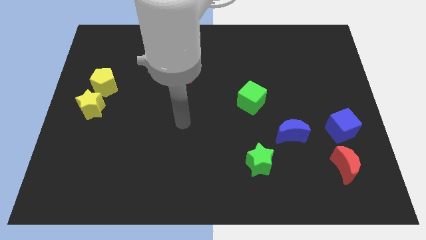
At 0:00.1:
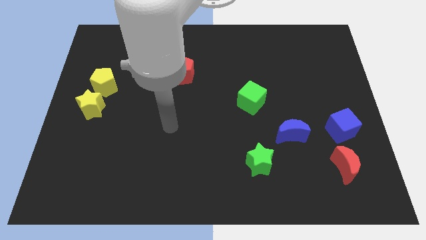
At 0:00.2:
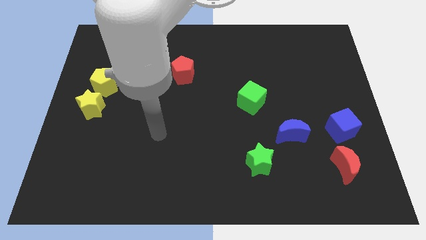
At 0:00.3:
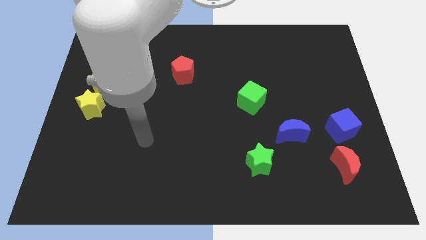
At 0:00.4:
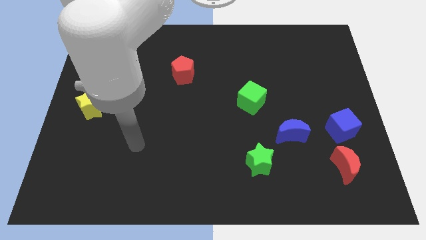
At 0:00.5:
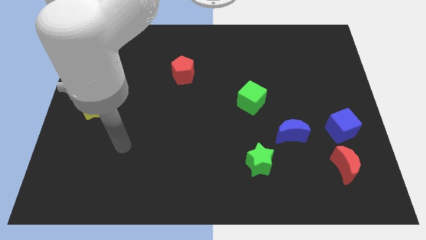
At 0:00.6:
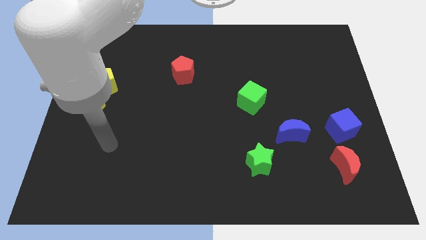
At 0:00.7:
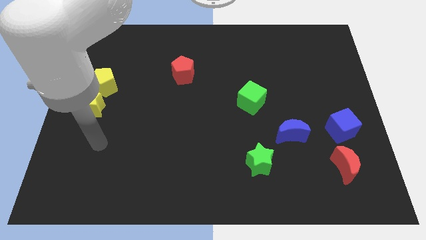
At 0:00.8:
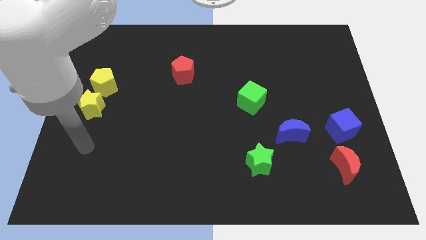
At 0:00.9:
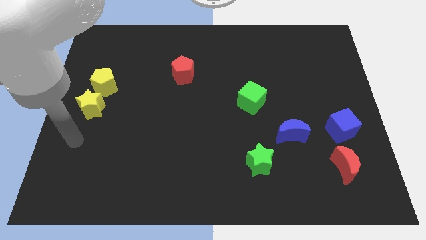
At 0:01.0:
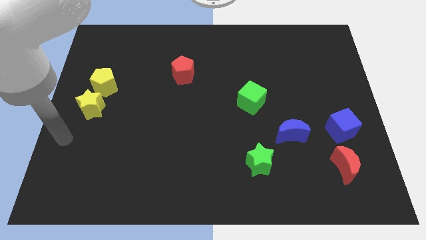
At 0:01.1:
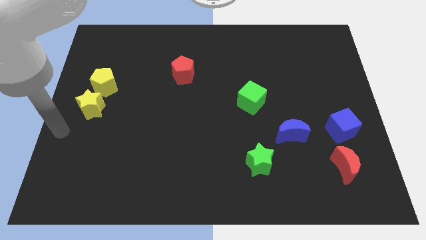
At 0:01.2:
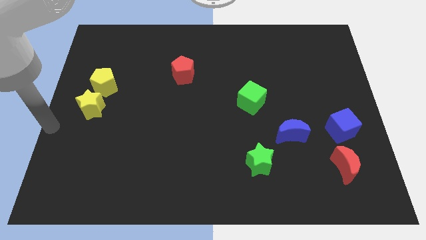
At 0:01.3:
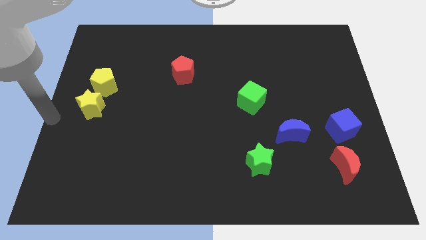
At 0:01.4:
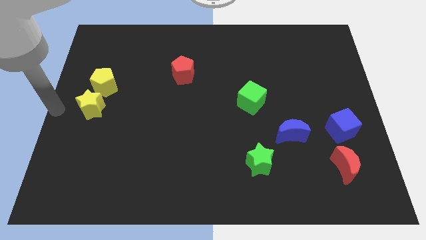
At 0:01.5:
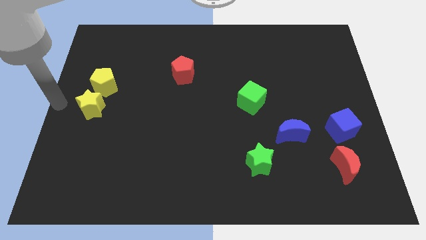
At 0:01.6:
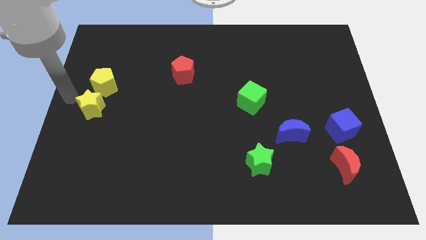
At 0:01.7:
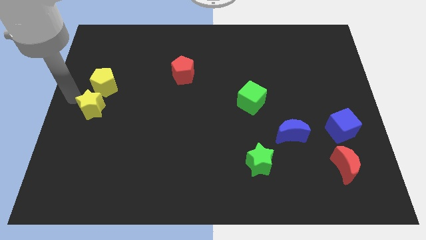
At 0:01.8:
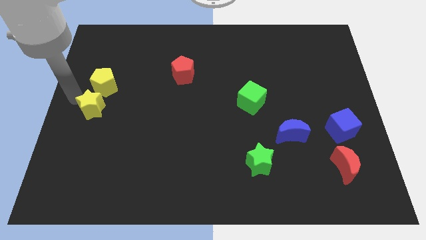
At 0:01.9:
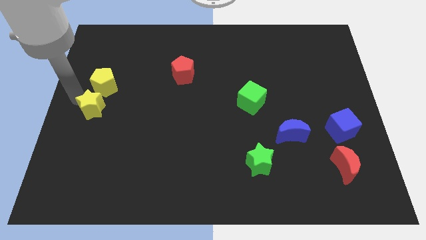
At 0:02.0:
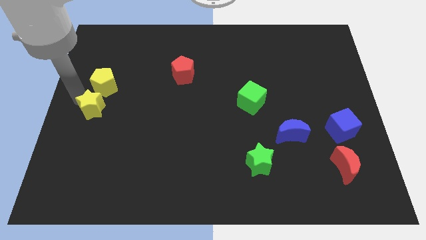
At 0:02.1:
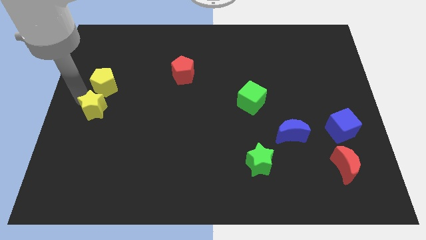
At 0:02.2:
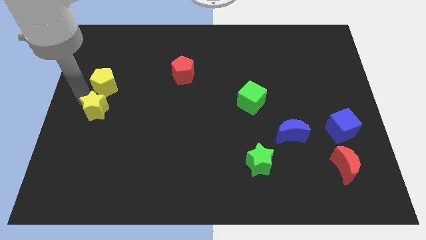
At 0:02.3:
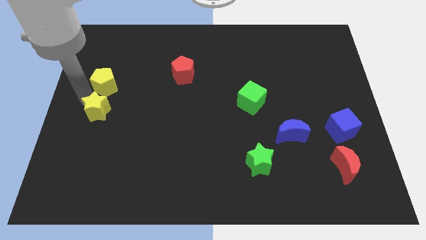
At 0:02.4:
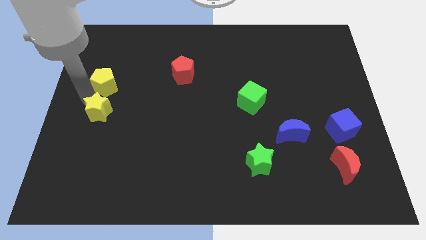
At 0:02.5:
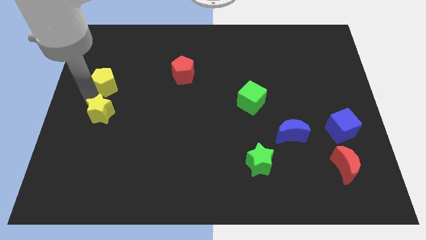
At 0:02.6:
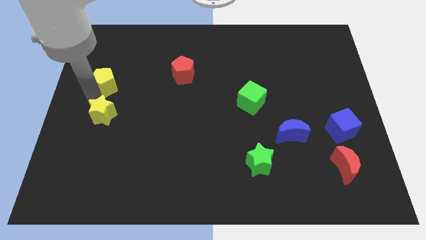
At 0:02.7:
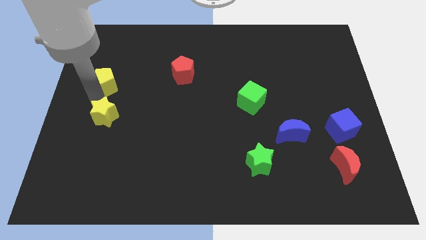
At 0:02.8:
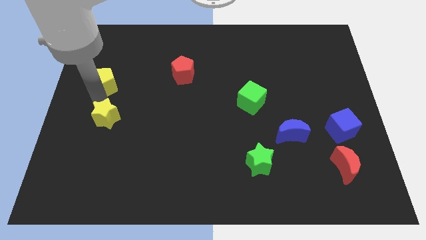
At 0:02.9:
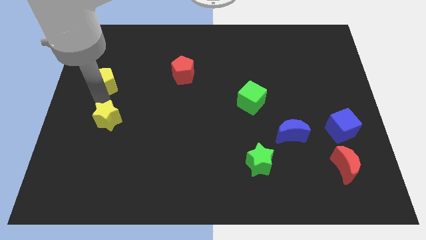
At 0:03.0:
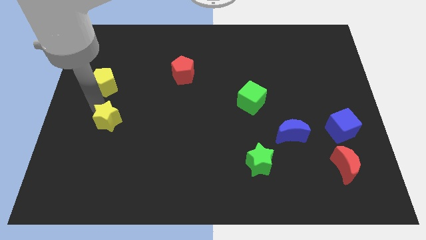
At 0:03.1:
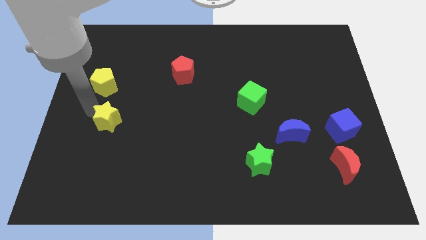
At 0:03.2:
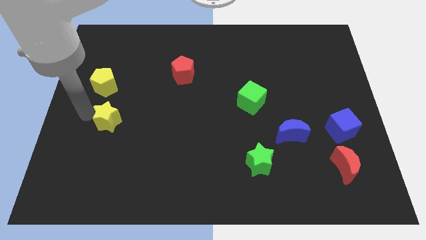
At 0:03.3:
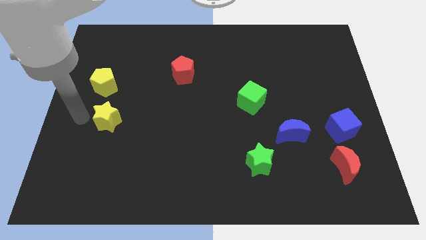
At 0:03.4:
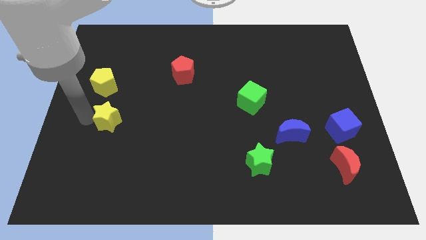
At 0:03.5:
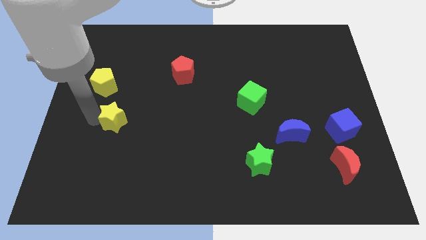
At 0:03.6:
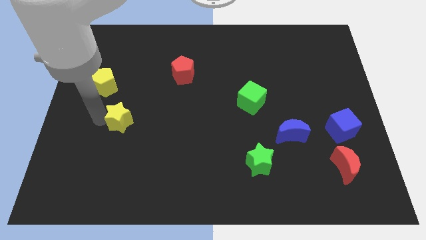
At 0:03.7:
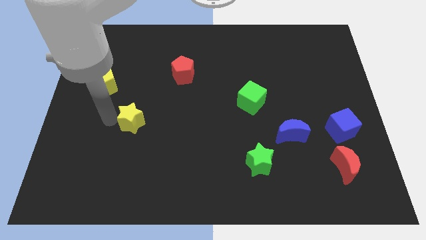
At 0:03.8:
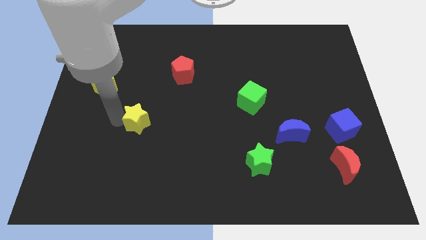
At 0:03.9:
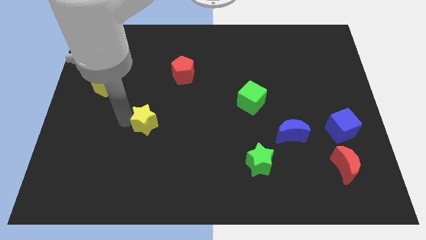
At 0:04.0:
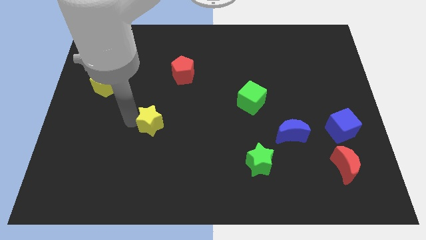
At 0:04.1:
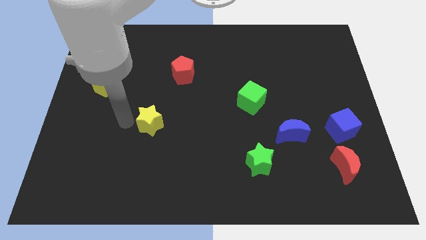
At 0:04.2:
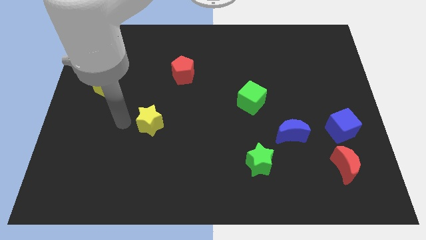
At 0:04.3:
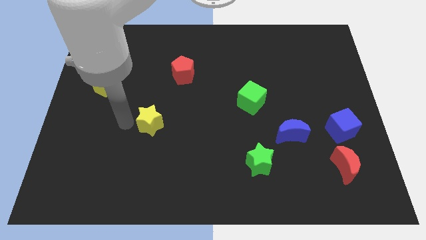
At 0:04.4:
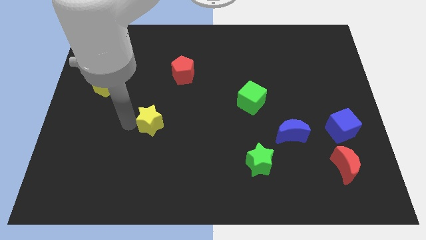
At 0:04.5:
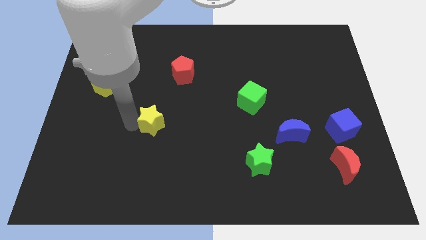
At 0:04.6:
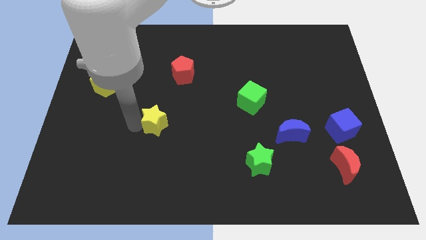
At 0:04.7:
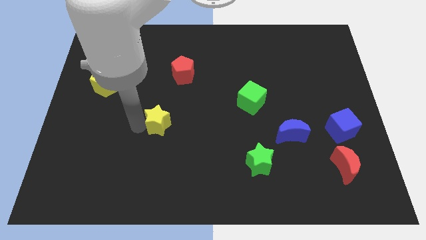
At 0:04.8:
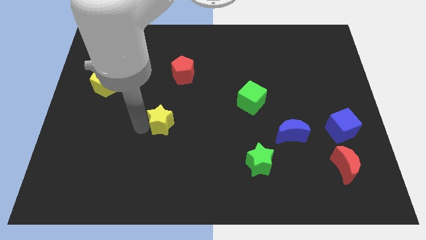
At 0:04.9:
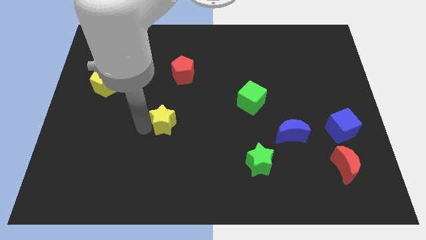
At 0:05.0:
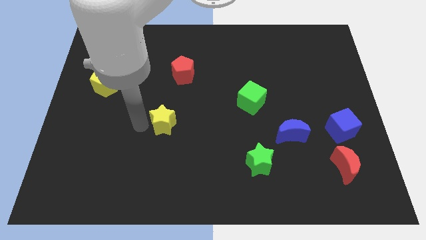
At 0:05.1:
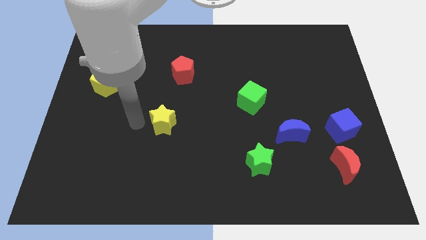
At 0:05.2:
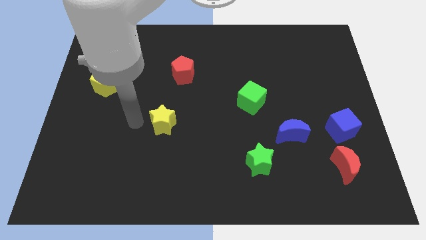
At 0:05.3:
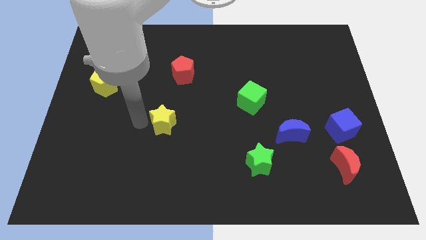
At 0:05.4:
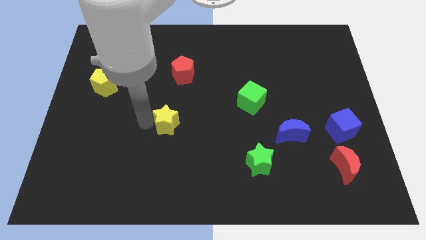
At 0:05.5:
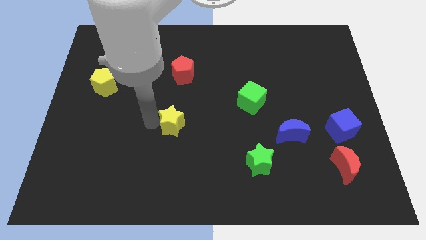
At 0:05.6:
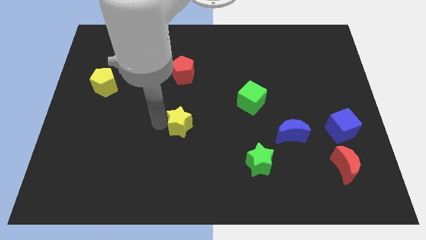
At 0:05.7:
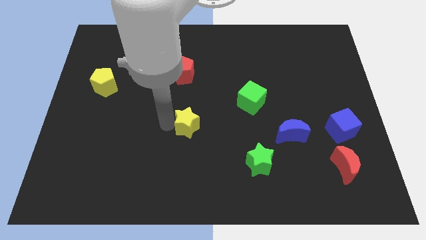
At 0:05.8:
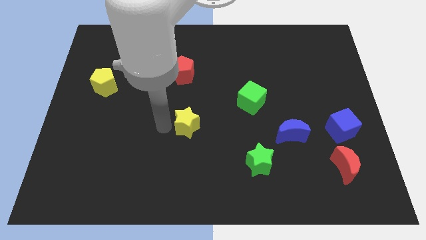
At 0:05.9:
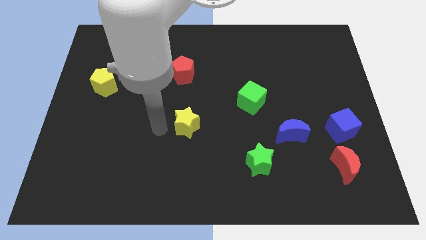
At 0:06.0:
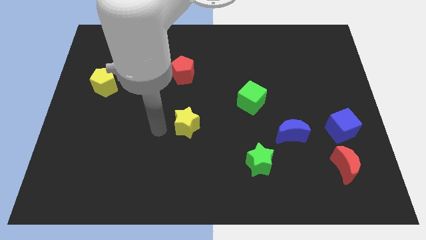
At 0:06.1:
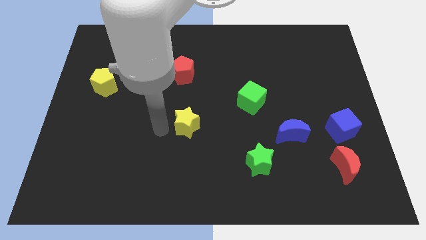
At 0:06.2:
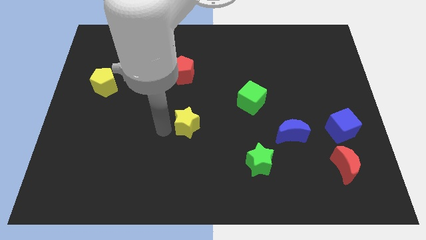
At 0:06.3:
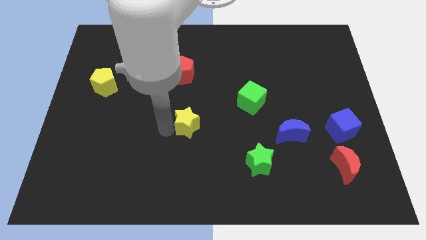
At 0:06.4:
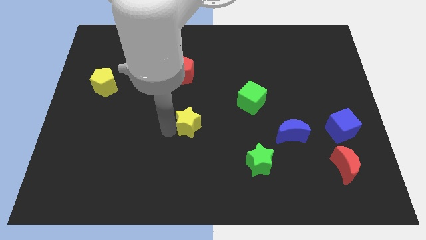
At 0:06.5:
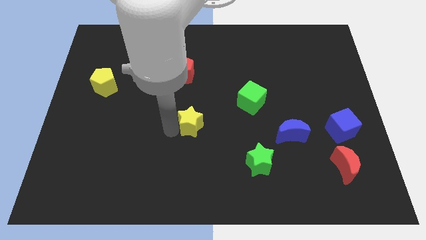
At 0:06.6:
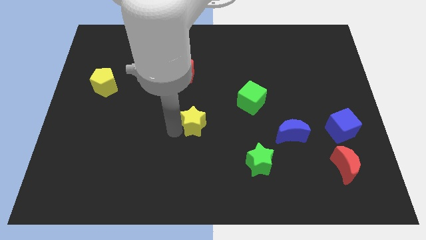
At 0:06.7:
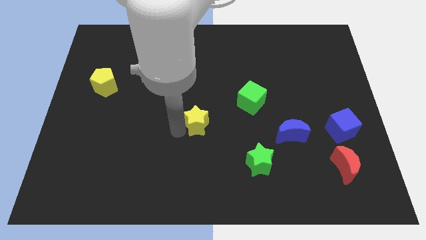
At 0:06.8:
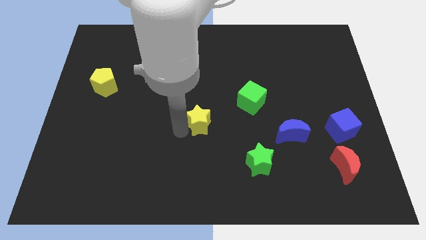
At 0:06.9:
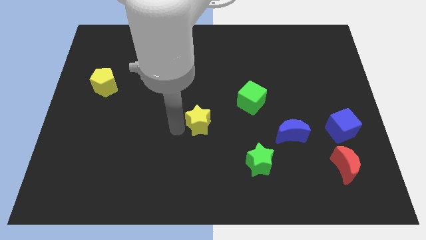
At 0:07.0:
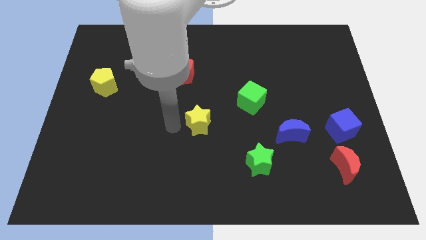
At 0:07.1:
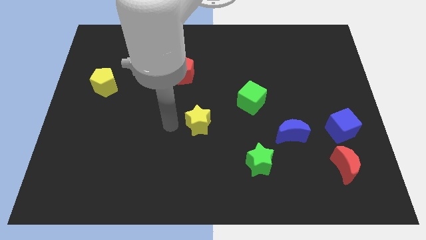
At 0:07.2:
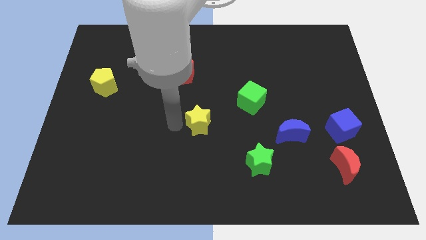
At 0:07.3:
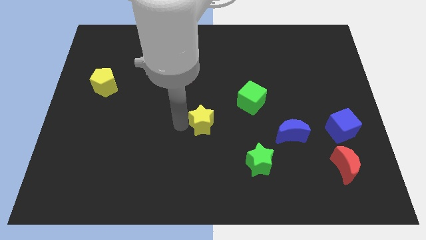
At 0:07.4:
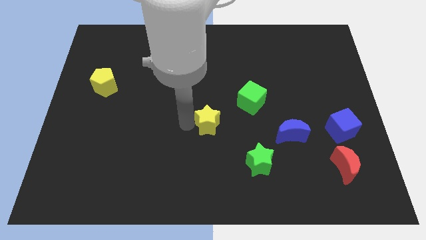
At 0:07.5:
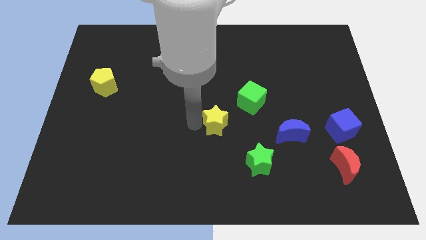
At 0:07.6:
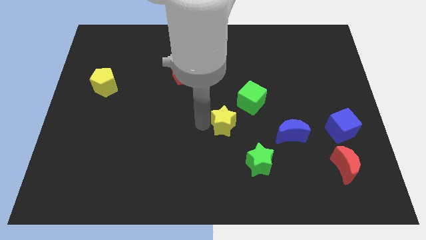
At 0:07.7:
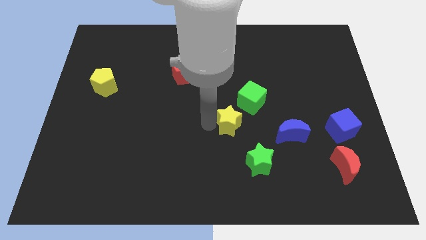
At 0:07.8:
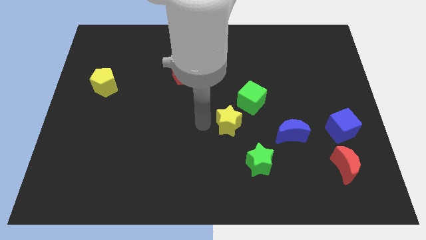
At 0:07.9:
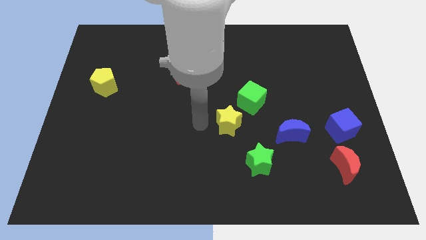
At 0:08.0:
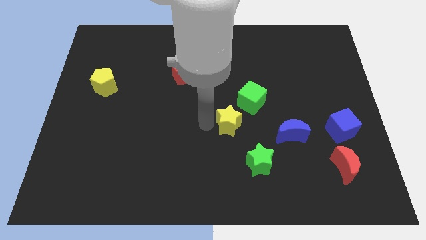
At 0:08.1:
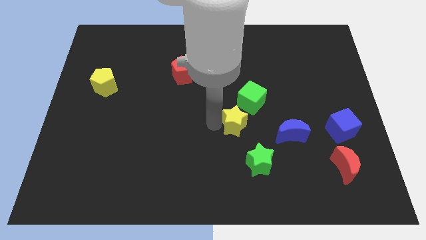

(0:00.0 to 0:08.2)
put the yellow star to the top side of the green star
